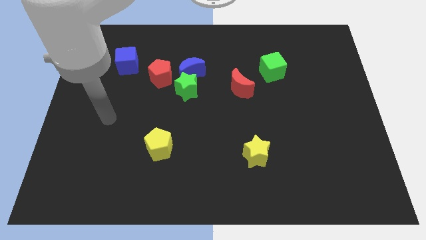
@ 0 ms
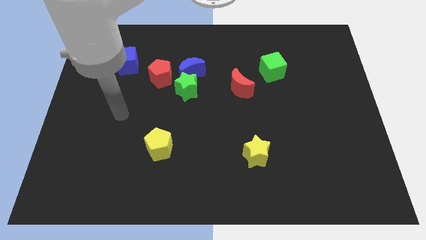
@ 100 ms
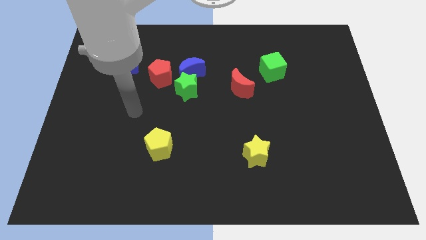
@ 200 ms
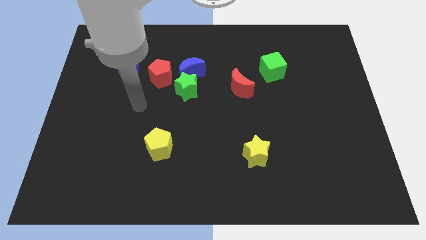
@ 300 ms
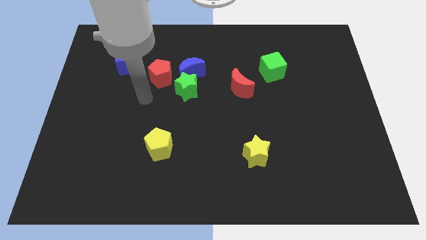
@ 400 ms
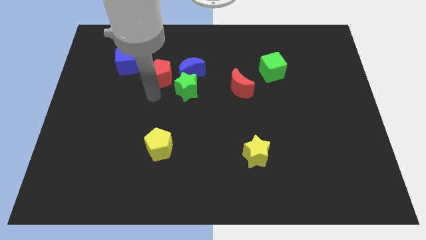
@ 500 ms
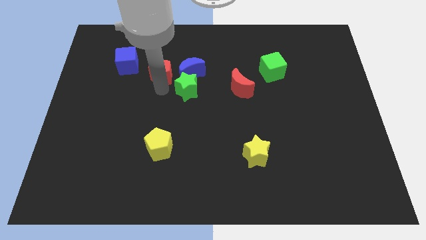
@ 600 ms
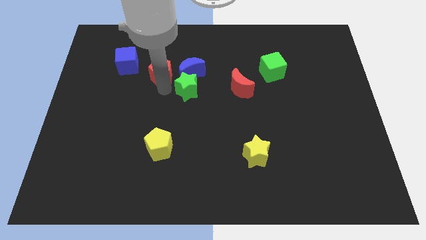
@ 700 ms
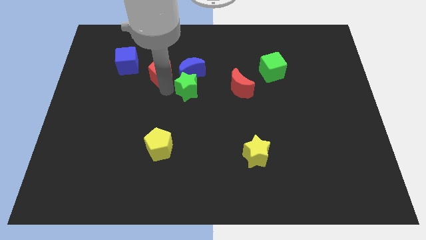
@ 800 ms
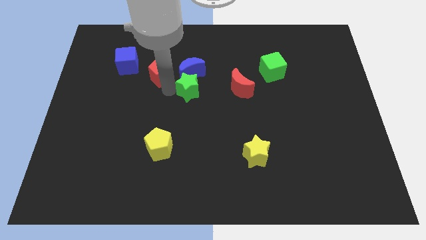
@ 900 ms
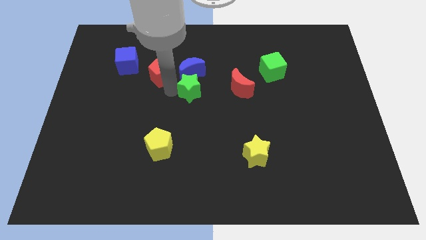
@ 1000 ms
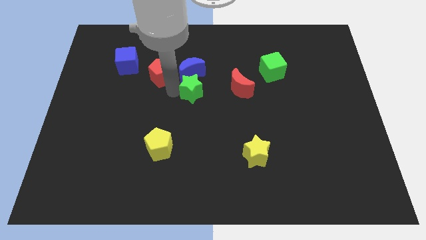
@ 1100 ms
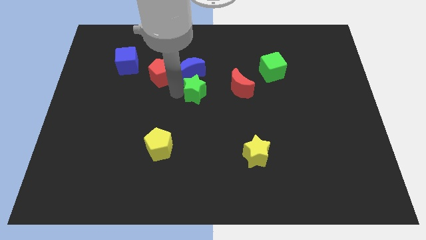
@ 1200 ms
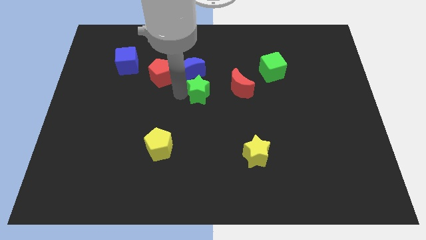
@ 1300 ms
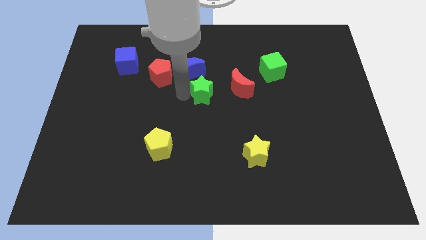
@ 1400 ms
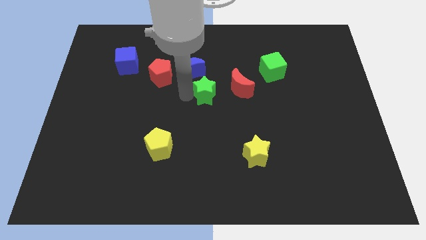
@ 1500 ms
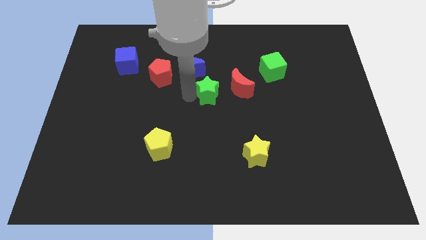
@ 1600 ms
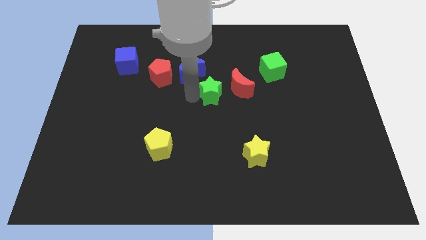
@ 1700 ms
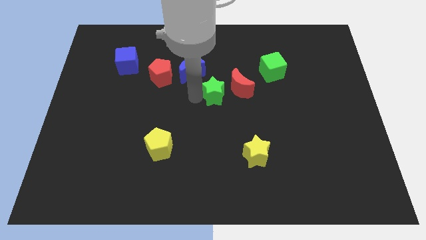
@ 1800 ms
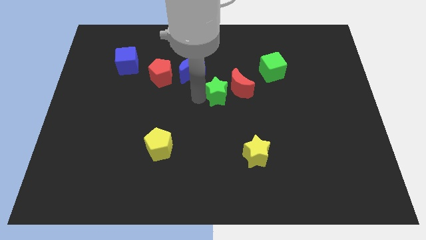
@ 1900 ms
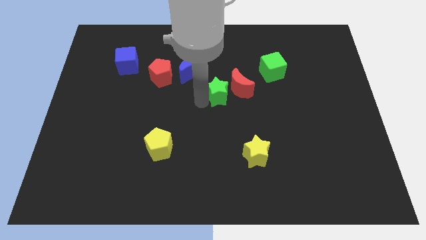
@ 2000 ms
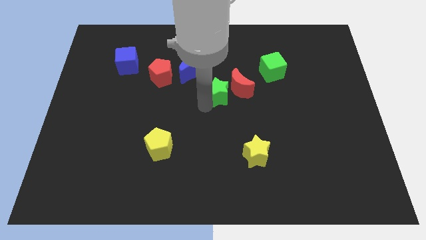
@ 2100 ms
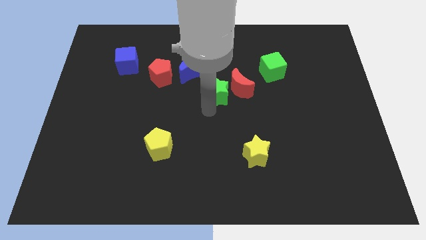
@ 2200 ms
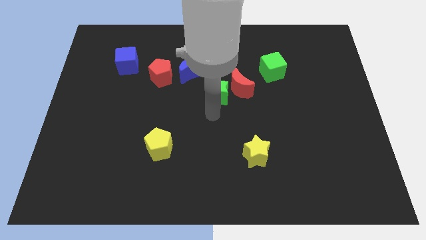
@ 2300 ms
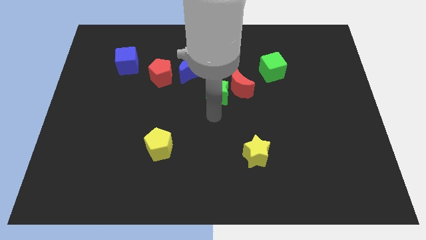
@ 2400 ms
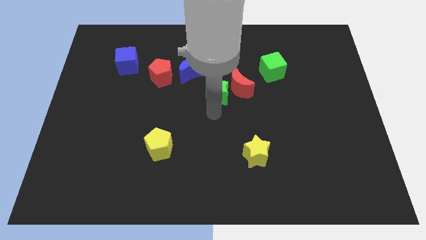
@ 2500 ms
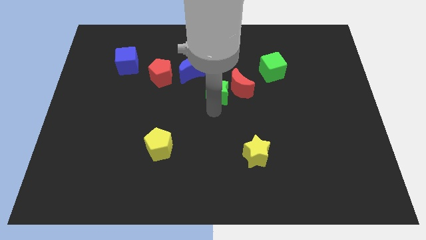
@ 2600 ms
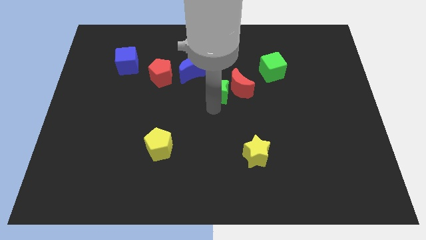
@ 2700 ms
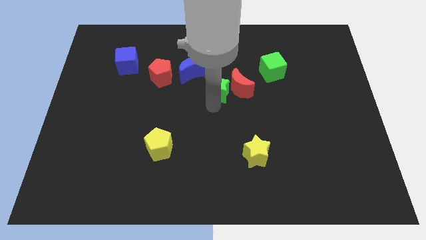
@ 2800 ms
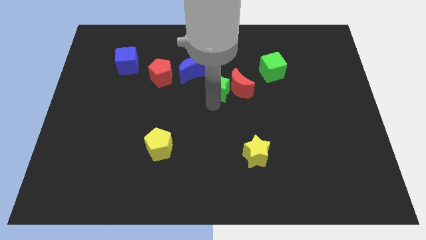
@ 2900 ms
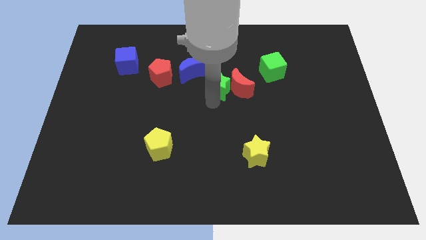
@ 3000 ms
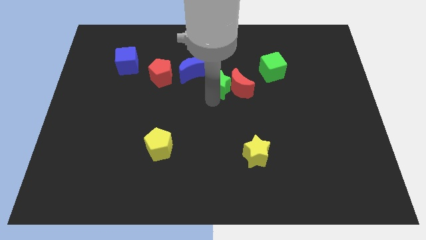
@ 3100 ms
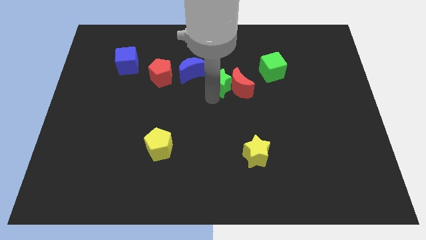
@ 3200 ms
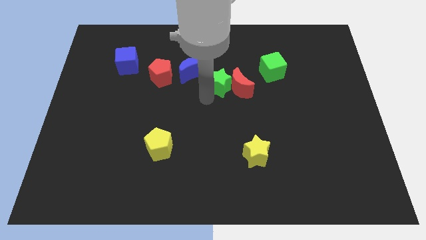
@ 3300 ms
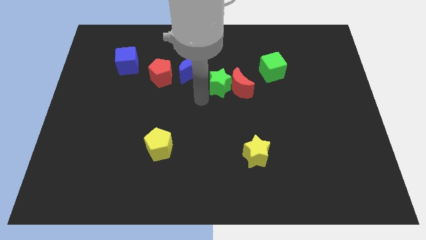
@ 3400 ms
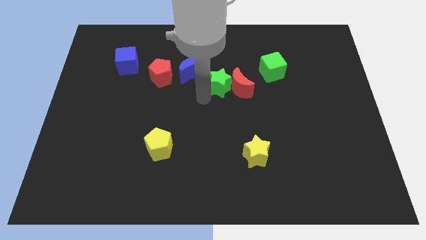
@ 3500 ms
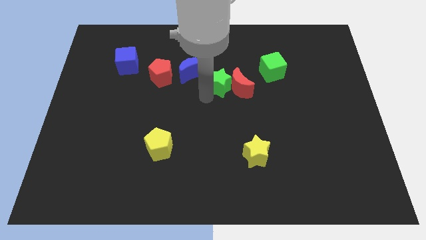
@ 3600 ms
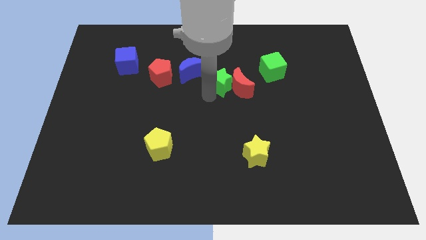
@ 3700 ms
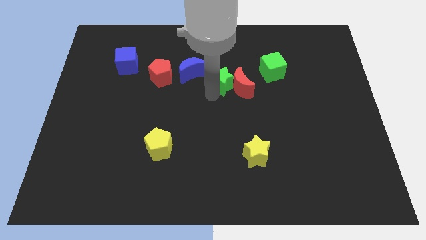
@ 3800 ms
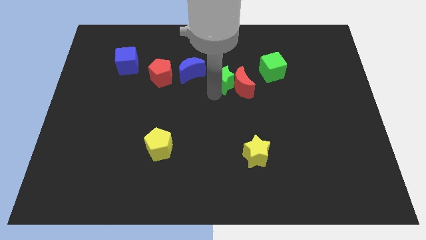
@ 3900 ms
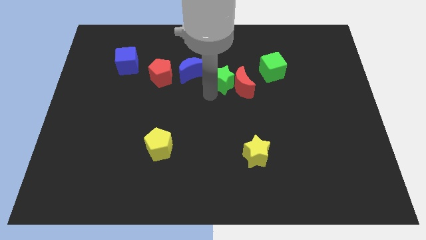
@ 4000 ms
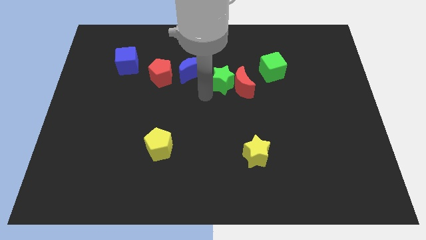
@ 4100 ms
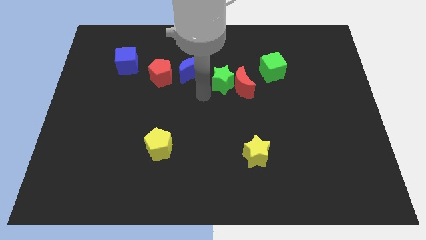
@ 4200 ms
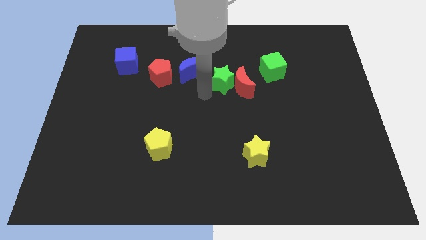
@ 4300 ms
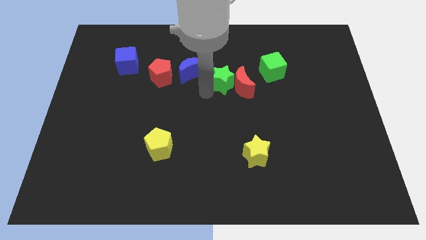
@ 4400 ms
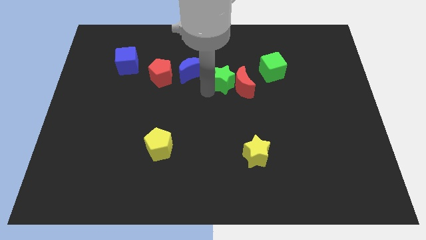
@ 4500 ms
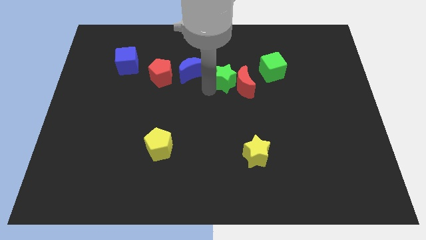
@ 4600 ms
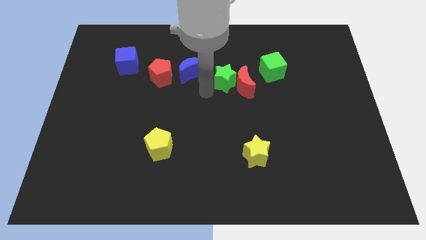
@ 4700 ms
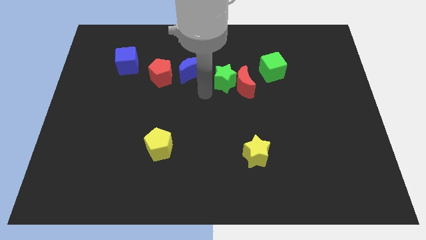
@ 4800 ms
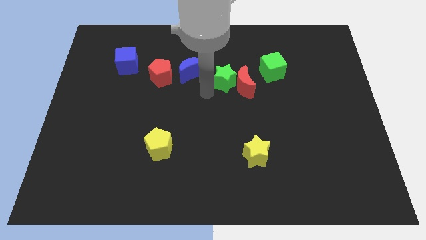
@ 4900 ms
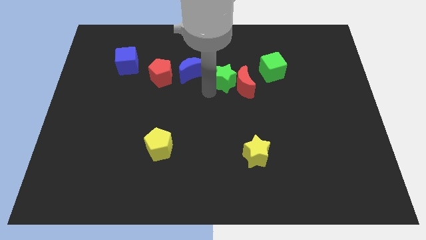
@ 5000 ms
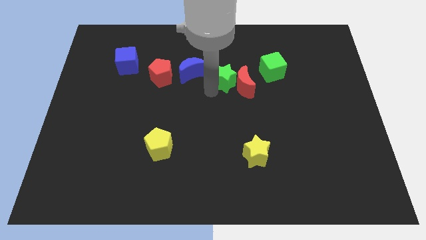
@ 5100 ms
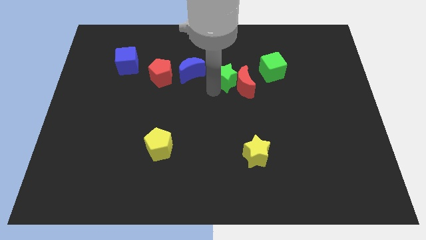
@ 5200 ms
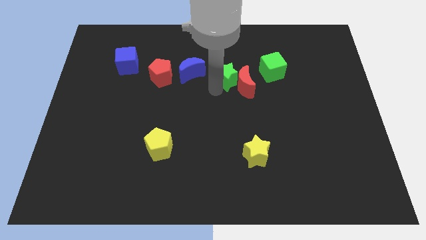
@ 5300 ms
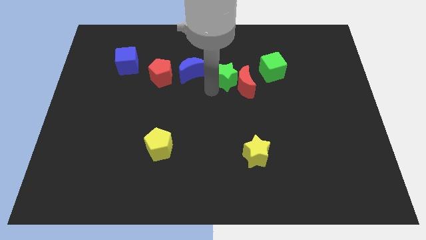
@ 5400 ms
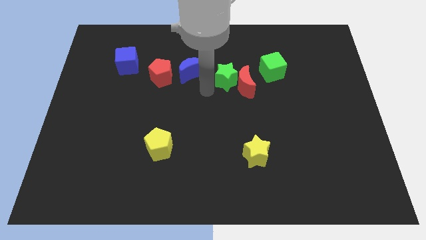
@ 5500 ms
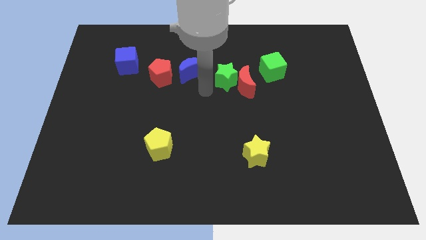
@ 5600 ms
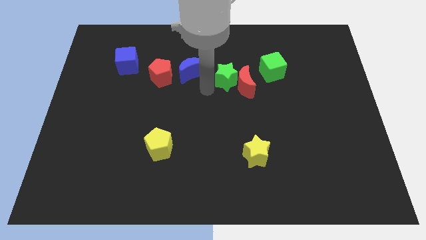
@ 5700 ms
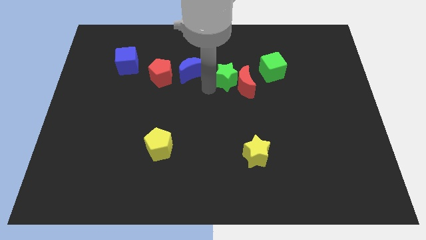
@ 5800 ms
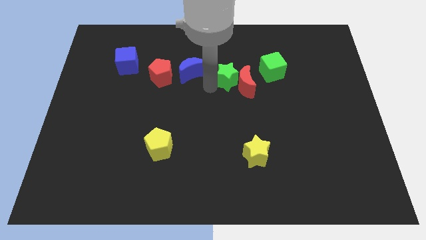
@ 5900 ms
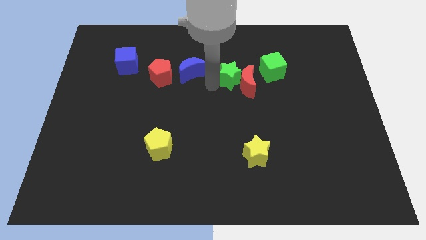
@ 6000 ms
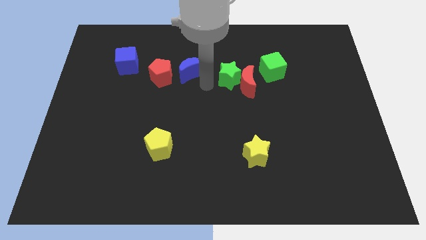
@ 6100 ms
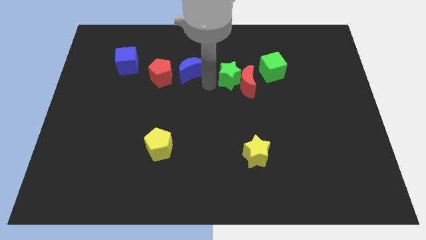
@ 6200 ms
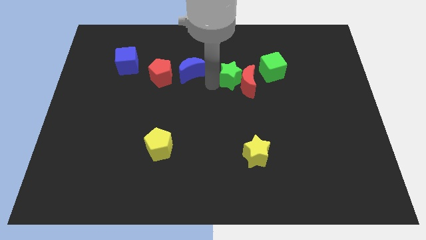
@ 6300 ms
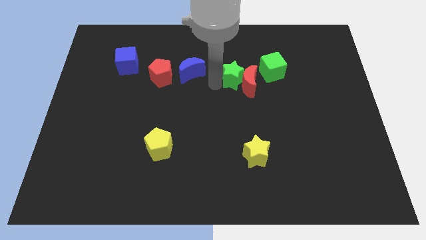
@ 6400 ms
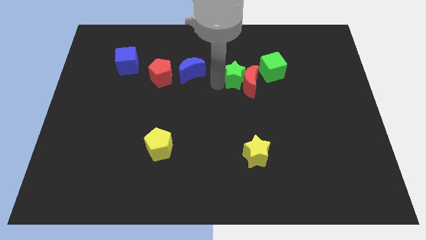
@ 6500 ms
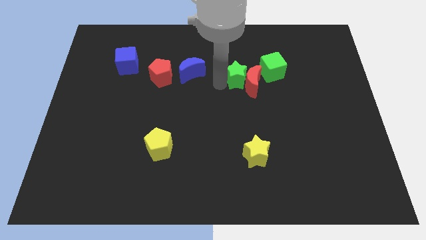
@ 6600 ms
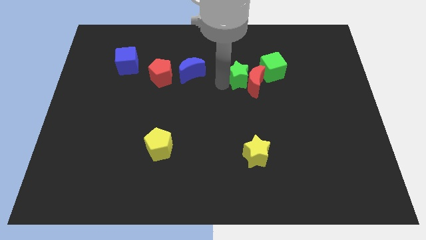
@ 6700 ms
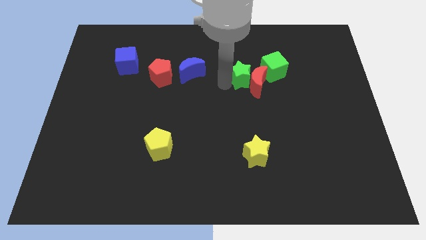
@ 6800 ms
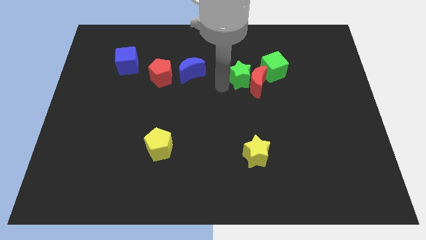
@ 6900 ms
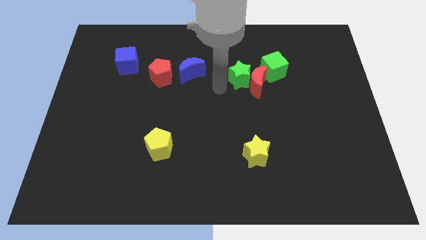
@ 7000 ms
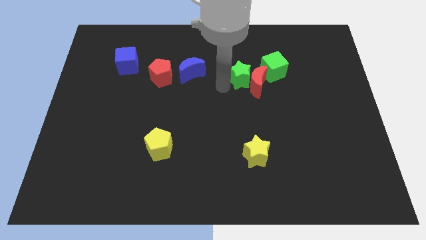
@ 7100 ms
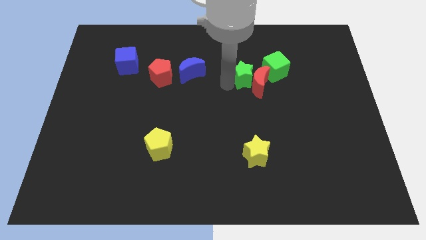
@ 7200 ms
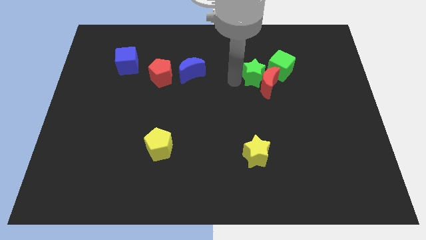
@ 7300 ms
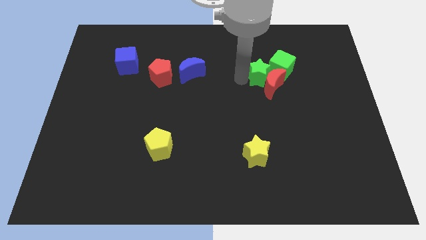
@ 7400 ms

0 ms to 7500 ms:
move the green star towards the green cube
